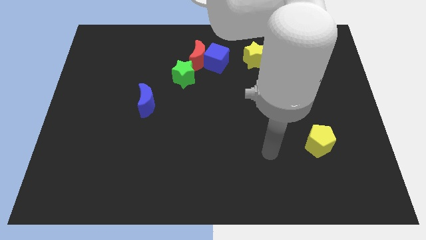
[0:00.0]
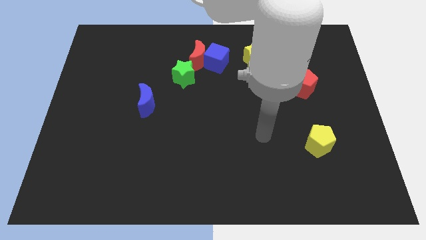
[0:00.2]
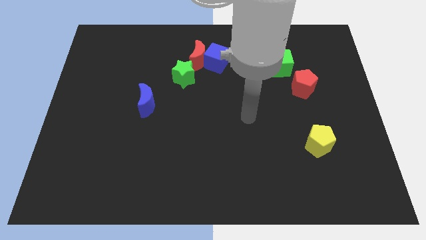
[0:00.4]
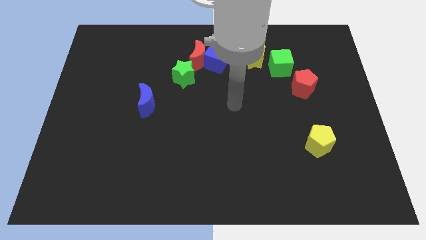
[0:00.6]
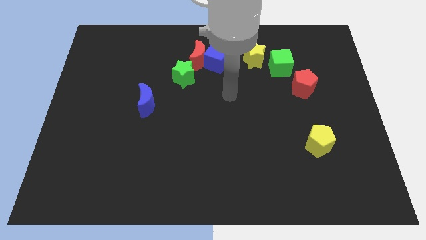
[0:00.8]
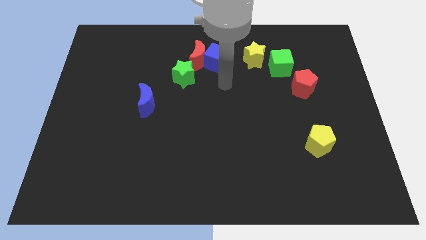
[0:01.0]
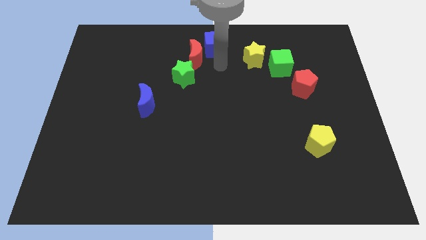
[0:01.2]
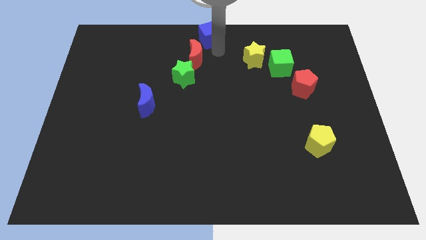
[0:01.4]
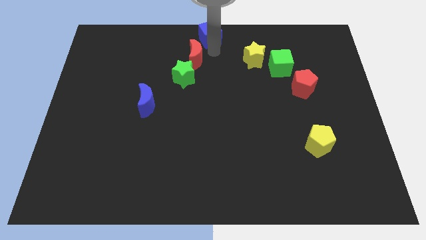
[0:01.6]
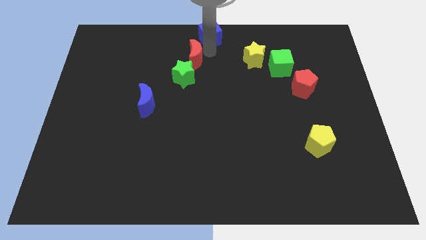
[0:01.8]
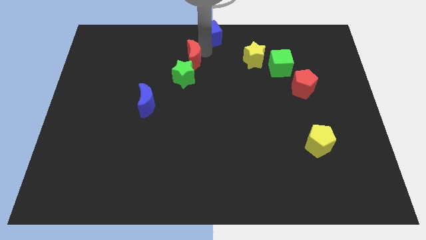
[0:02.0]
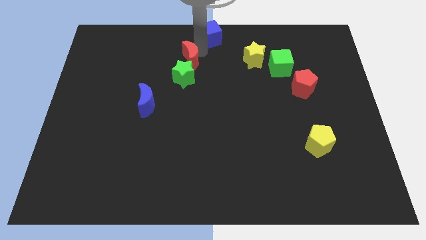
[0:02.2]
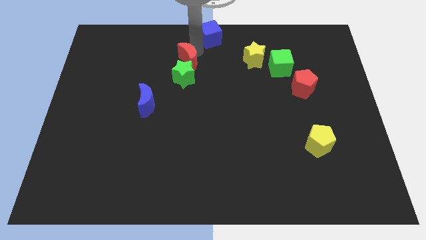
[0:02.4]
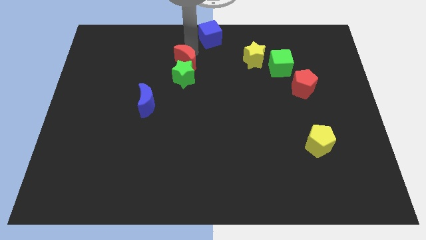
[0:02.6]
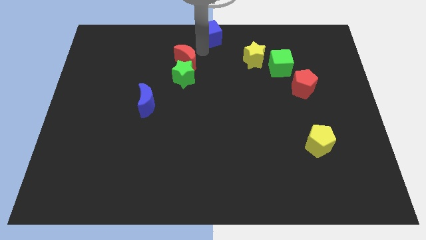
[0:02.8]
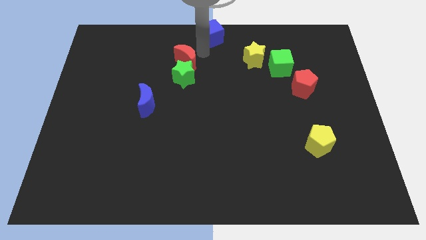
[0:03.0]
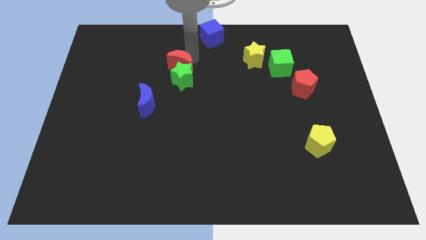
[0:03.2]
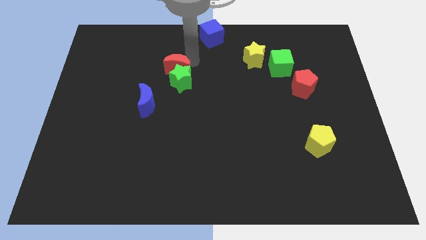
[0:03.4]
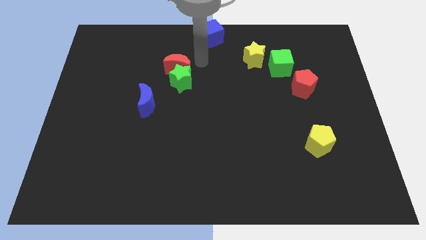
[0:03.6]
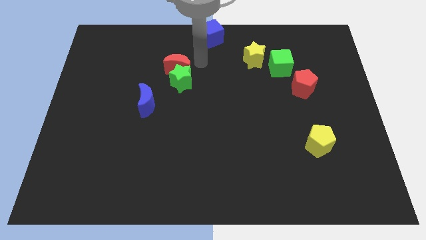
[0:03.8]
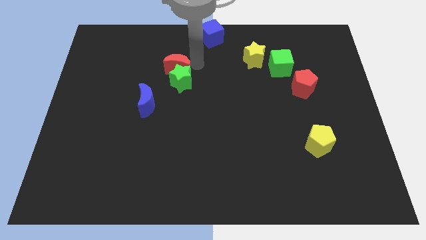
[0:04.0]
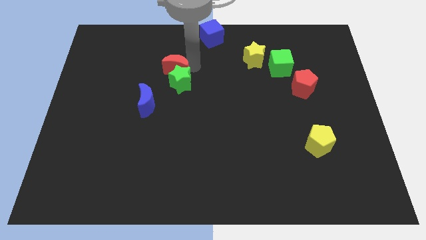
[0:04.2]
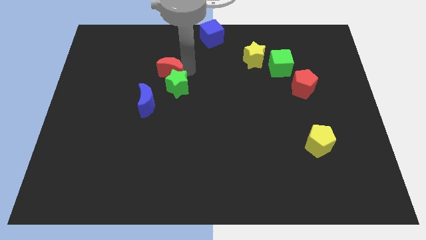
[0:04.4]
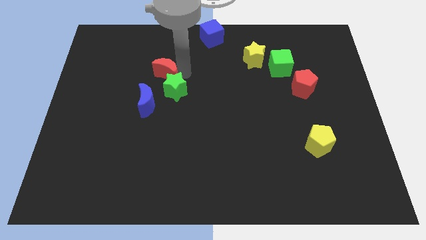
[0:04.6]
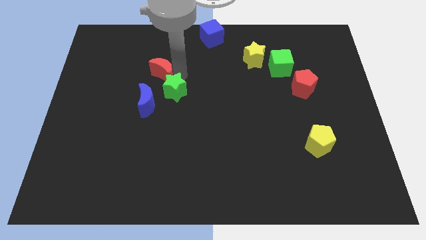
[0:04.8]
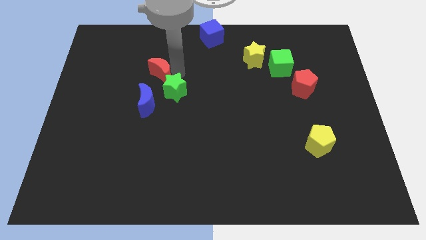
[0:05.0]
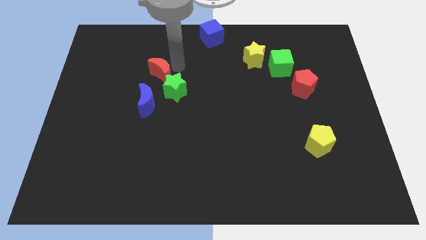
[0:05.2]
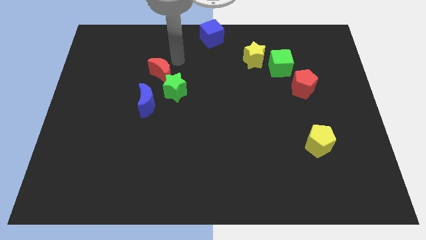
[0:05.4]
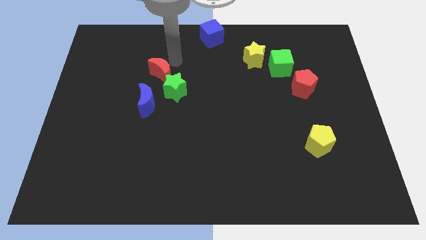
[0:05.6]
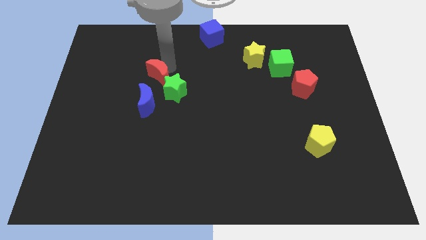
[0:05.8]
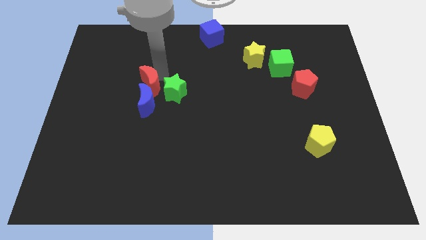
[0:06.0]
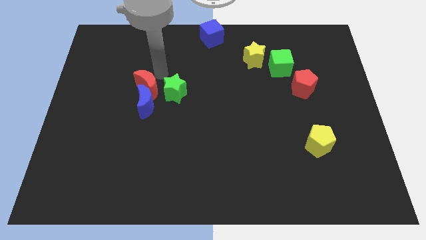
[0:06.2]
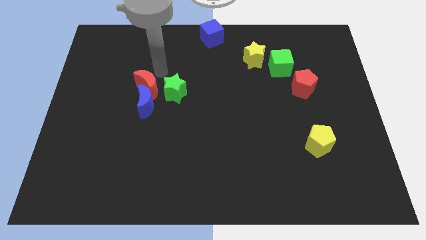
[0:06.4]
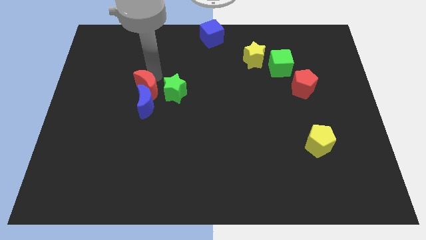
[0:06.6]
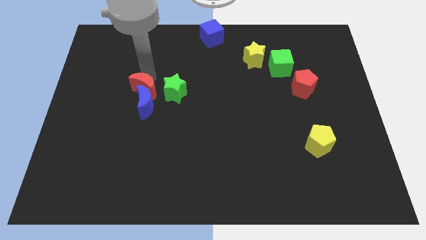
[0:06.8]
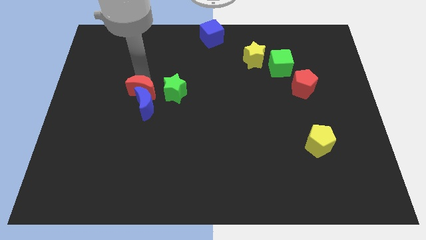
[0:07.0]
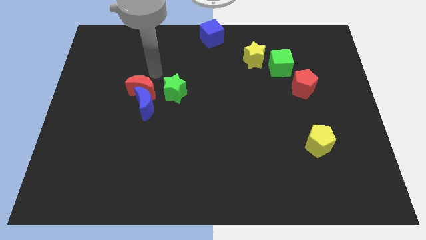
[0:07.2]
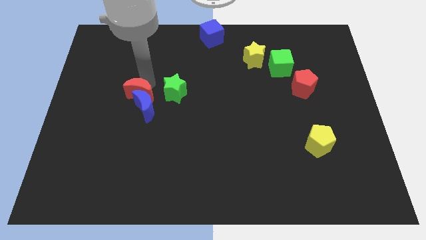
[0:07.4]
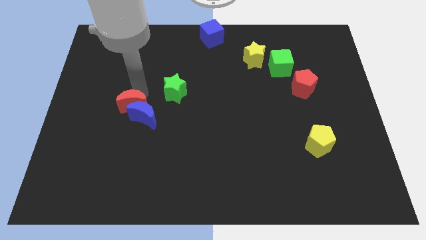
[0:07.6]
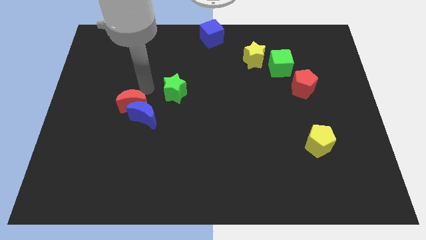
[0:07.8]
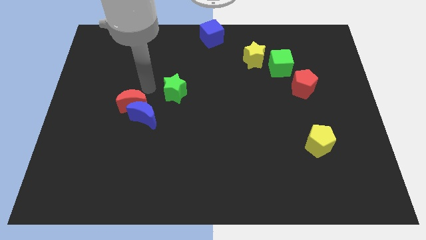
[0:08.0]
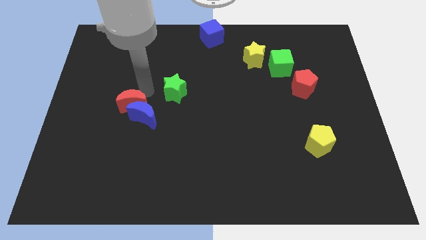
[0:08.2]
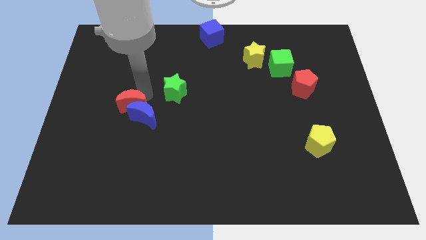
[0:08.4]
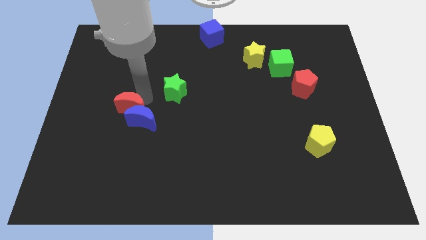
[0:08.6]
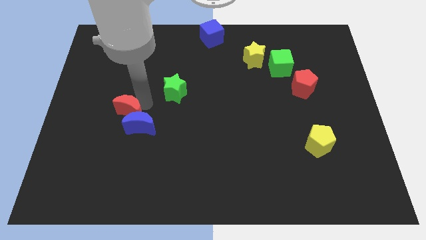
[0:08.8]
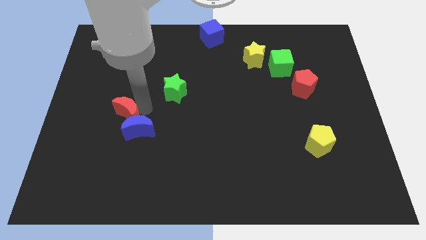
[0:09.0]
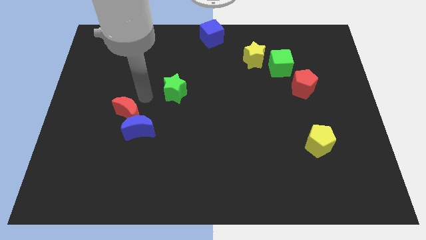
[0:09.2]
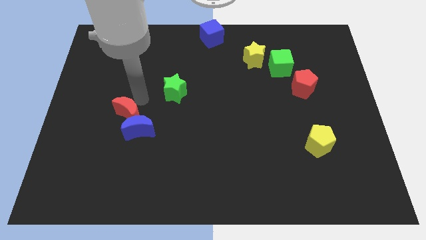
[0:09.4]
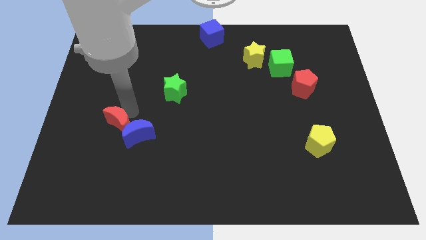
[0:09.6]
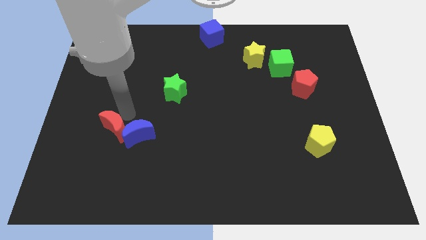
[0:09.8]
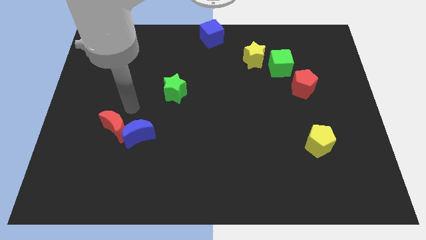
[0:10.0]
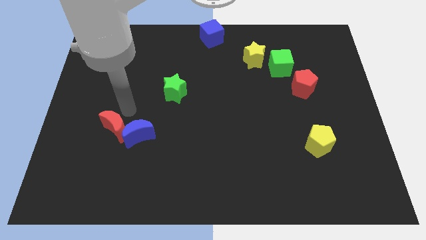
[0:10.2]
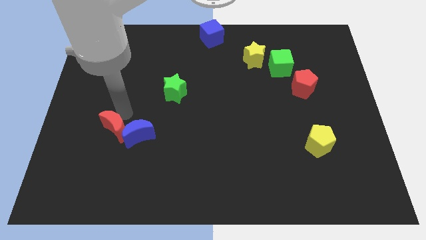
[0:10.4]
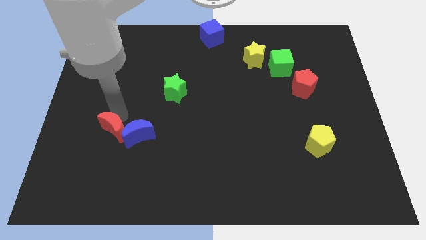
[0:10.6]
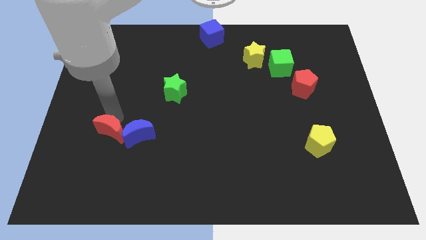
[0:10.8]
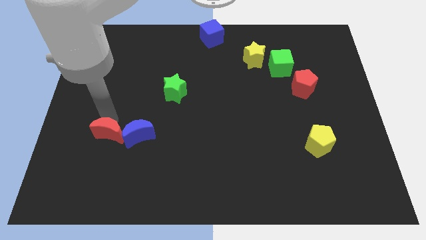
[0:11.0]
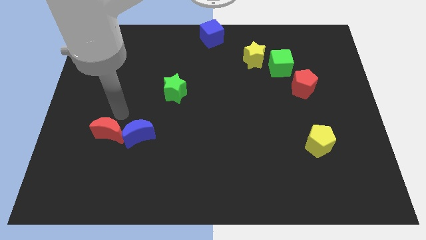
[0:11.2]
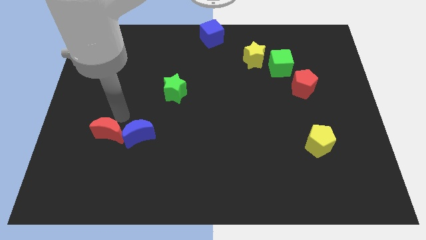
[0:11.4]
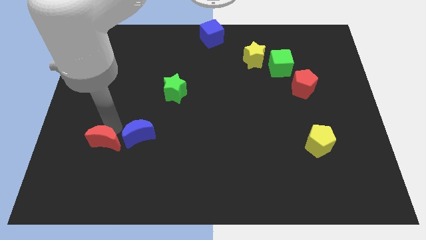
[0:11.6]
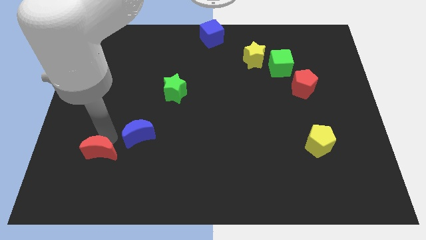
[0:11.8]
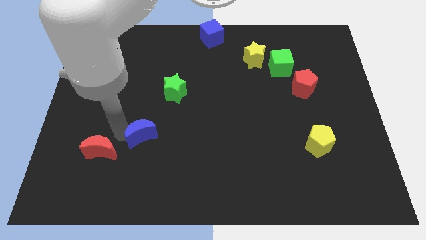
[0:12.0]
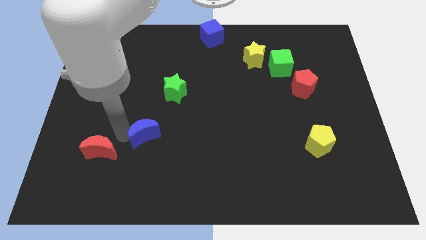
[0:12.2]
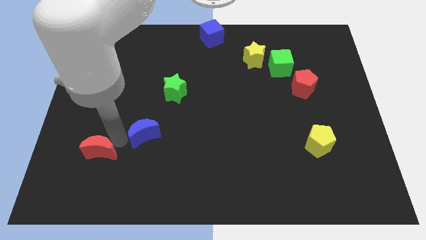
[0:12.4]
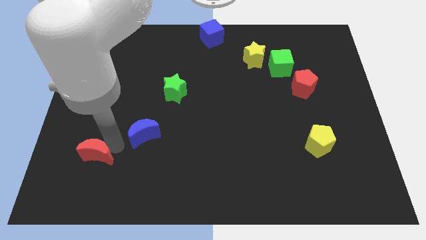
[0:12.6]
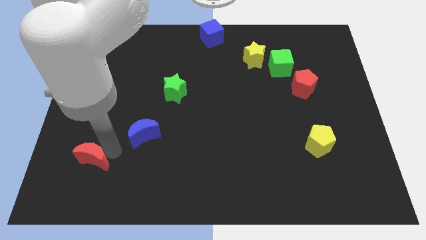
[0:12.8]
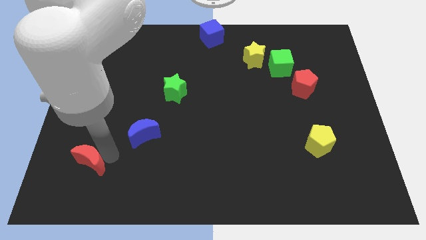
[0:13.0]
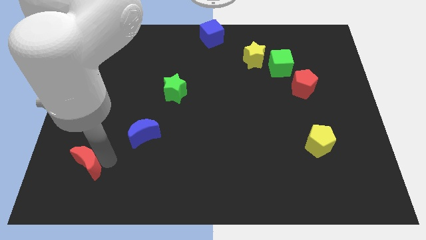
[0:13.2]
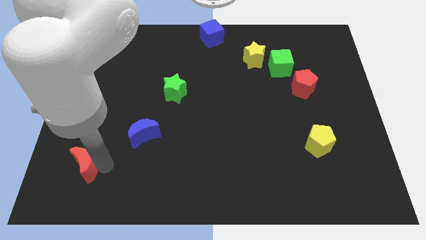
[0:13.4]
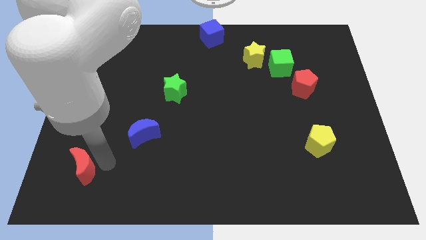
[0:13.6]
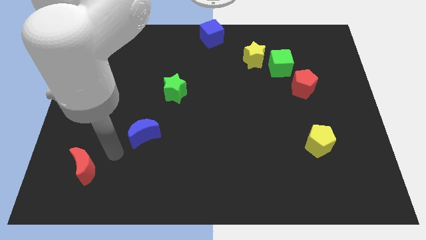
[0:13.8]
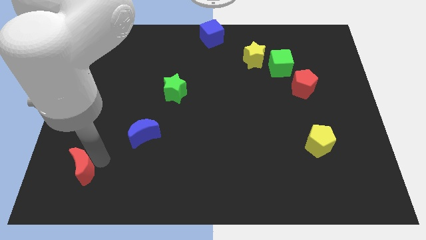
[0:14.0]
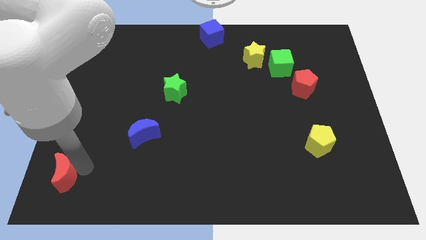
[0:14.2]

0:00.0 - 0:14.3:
push the red moon to the lower left corner
